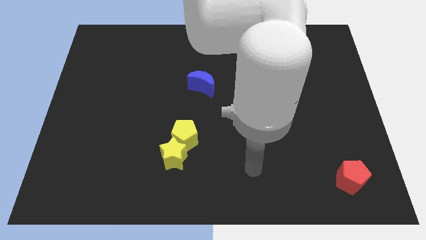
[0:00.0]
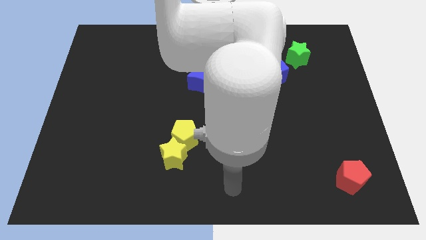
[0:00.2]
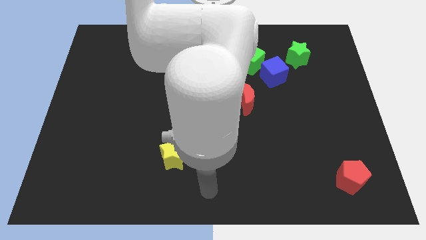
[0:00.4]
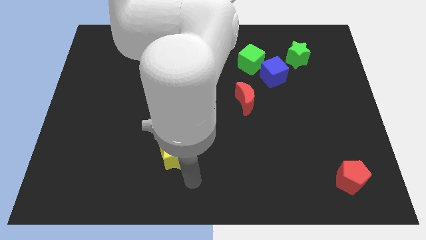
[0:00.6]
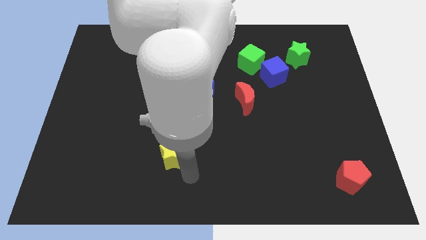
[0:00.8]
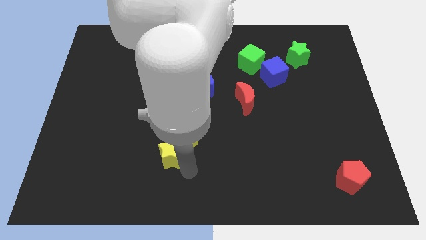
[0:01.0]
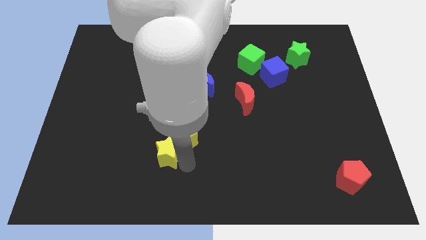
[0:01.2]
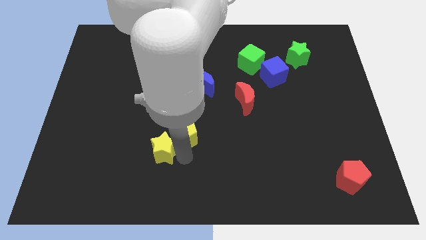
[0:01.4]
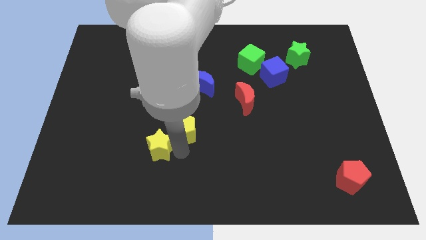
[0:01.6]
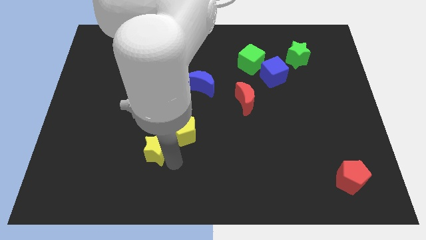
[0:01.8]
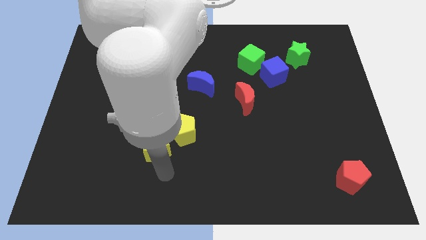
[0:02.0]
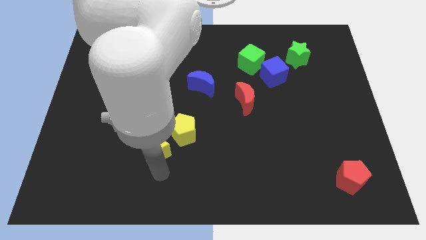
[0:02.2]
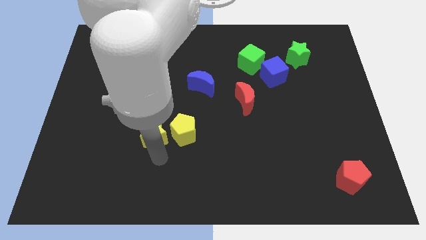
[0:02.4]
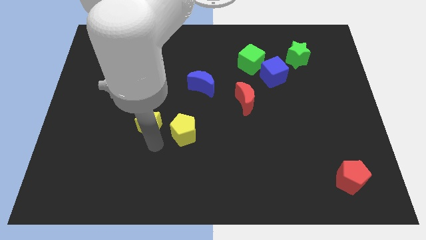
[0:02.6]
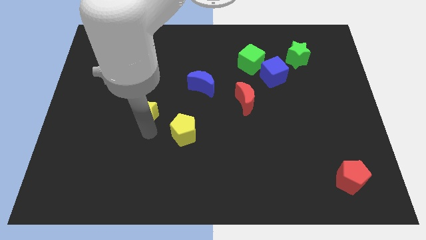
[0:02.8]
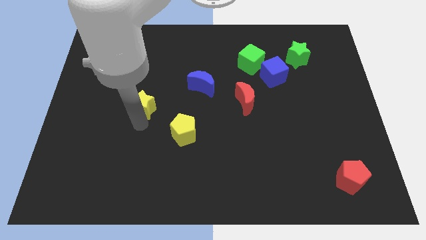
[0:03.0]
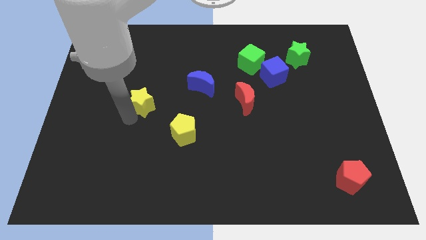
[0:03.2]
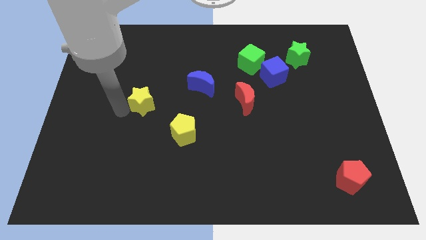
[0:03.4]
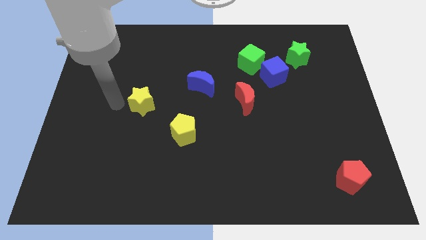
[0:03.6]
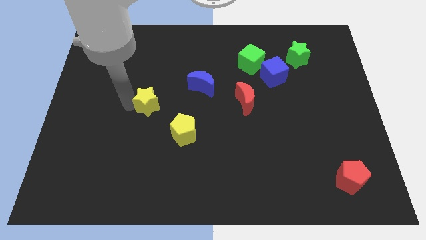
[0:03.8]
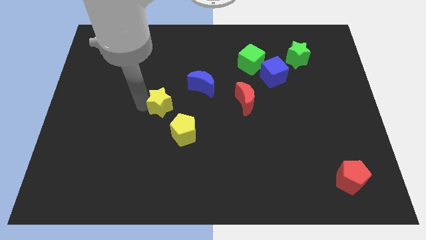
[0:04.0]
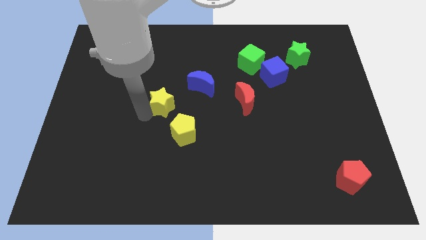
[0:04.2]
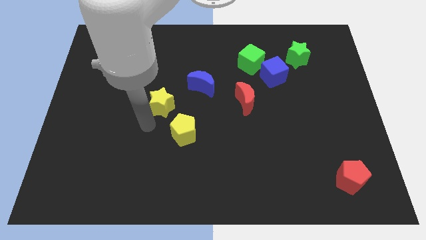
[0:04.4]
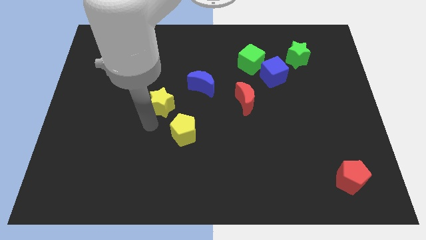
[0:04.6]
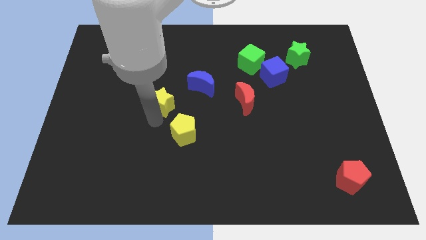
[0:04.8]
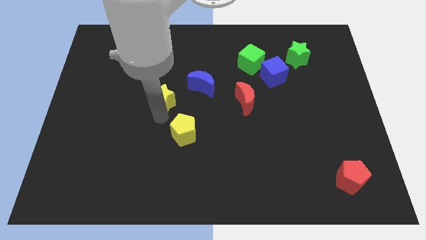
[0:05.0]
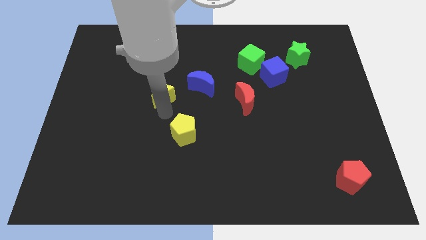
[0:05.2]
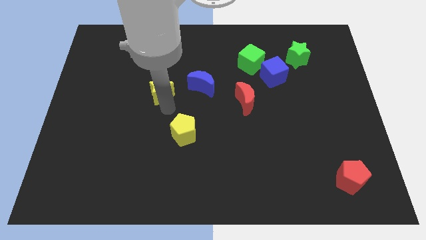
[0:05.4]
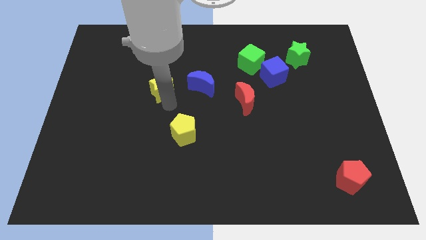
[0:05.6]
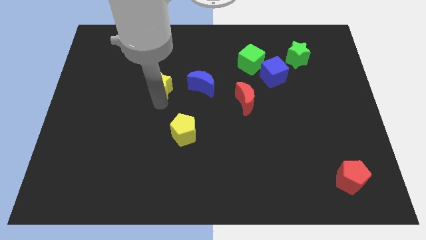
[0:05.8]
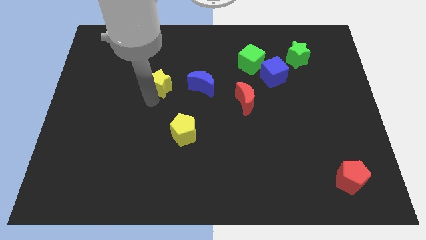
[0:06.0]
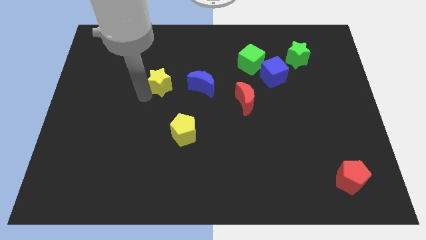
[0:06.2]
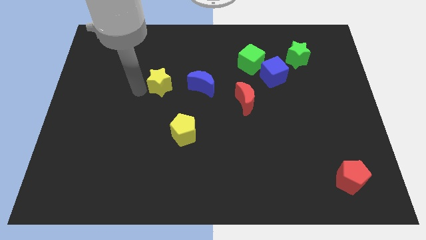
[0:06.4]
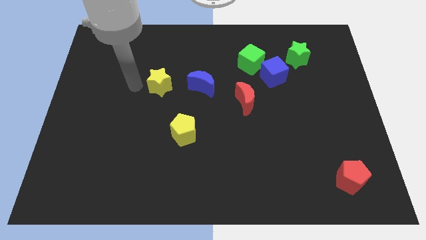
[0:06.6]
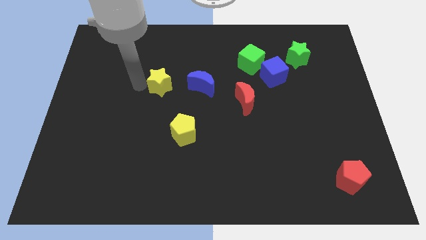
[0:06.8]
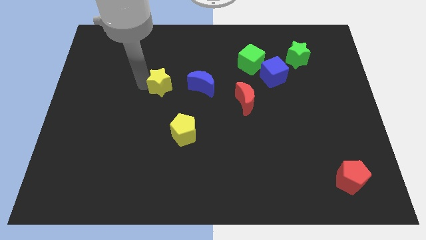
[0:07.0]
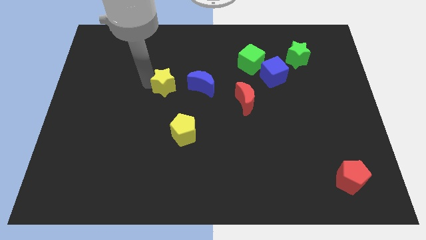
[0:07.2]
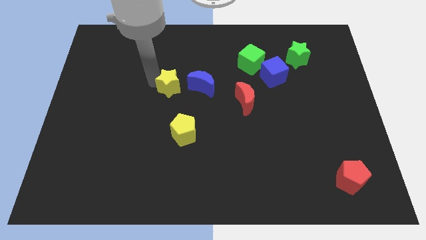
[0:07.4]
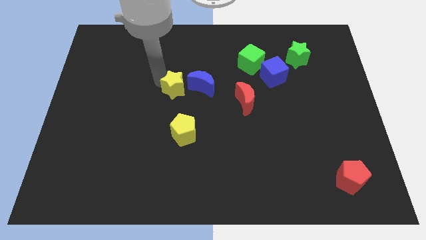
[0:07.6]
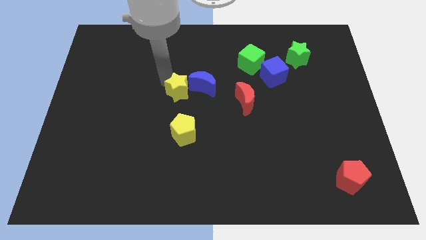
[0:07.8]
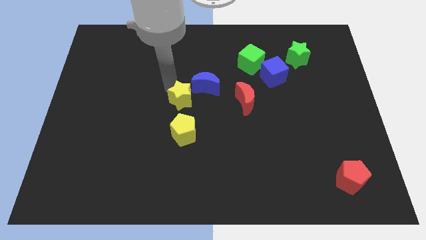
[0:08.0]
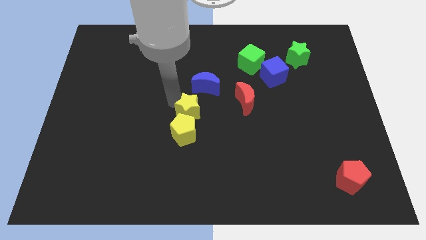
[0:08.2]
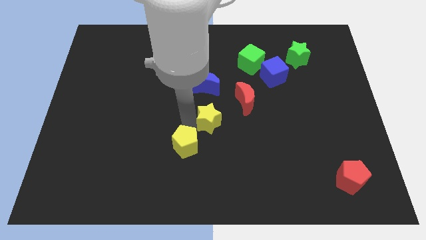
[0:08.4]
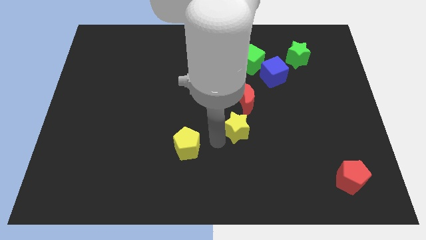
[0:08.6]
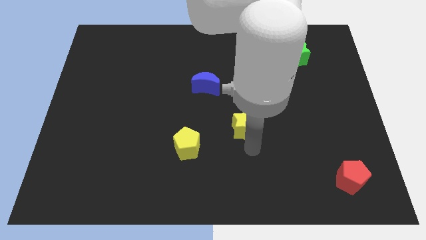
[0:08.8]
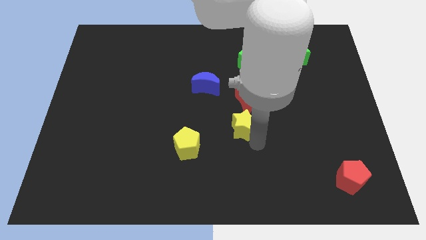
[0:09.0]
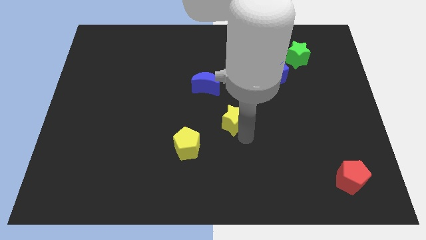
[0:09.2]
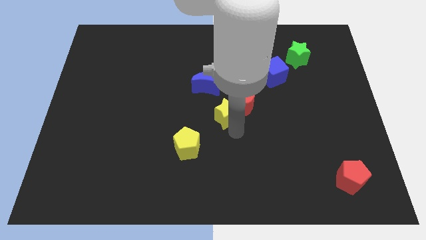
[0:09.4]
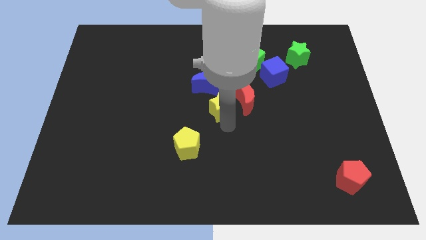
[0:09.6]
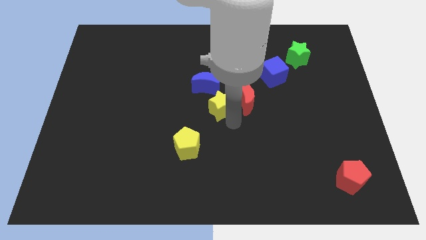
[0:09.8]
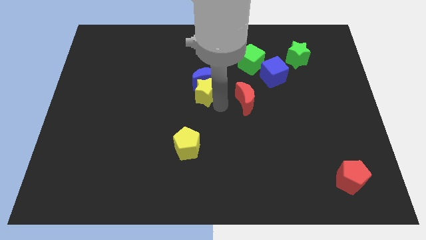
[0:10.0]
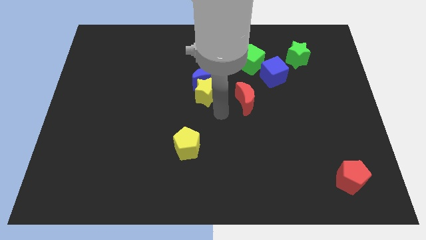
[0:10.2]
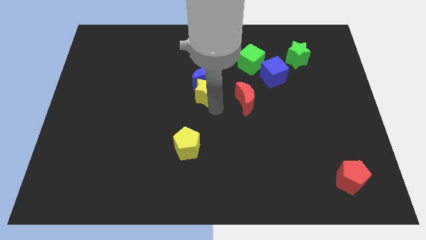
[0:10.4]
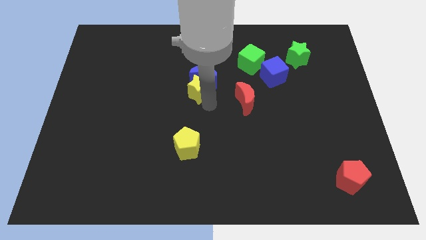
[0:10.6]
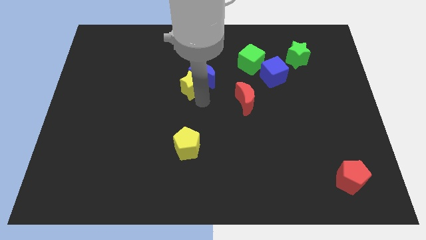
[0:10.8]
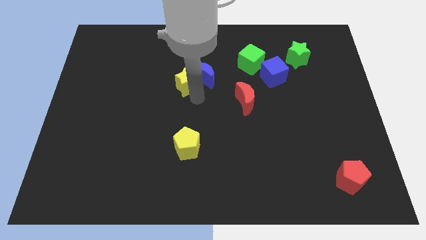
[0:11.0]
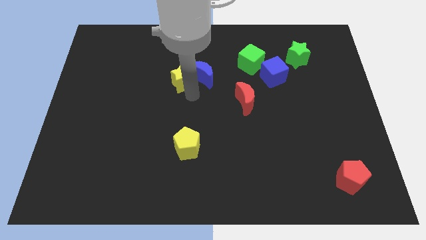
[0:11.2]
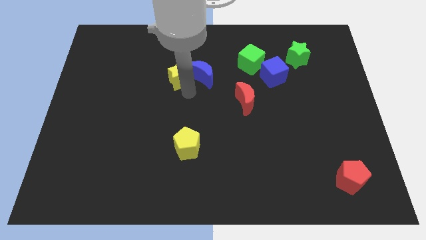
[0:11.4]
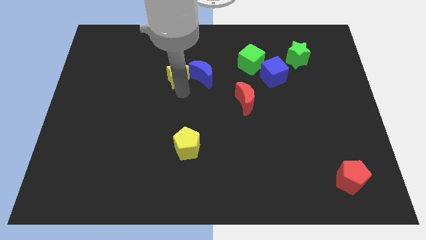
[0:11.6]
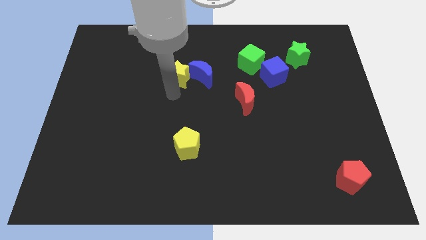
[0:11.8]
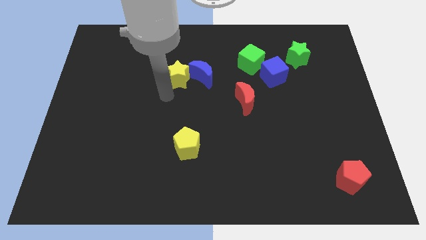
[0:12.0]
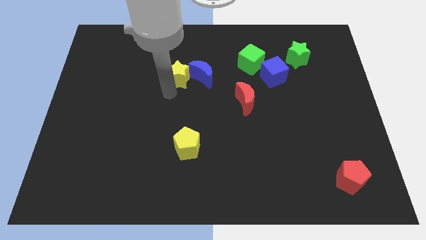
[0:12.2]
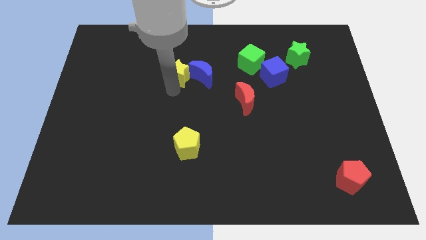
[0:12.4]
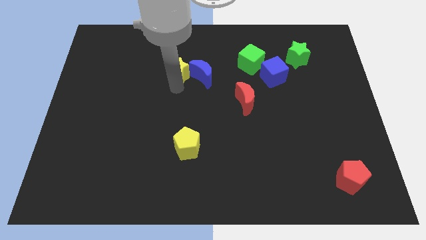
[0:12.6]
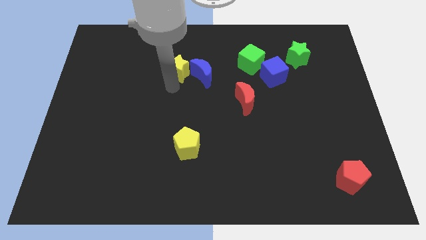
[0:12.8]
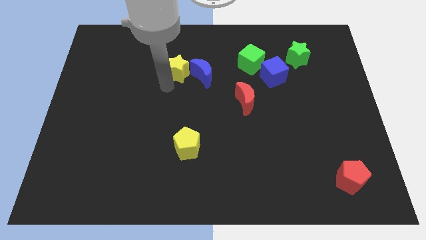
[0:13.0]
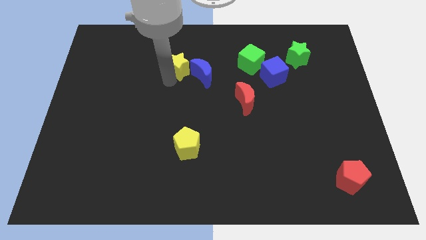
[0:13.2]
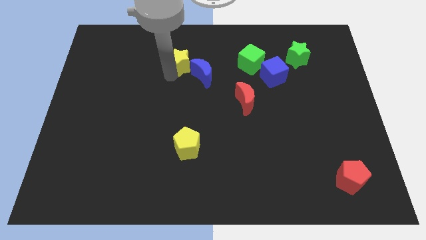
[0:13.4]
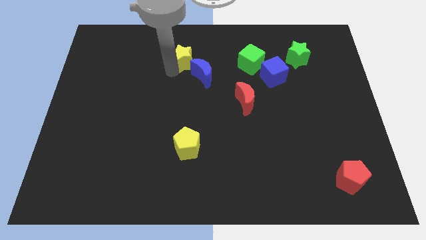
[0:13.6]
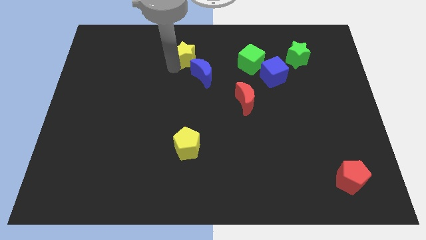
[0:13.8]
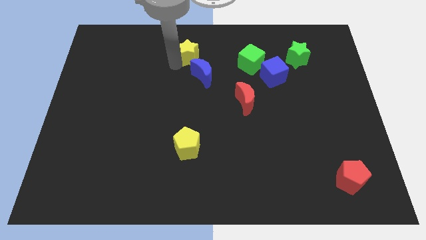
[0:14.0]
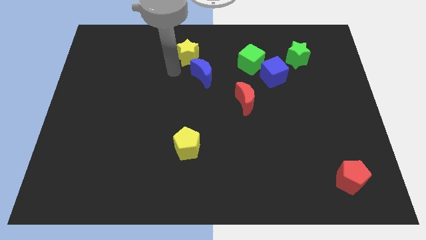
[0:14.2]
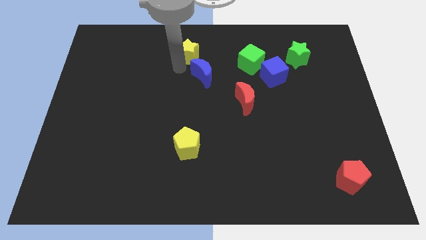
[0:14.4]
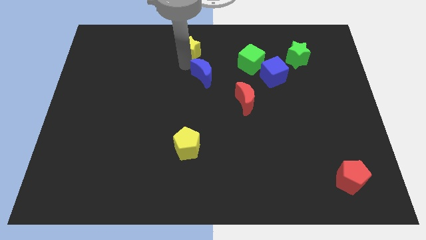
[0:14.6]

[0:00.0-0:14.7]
move the yellow star to the top
